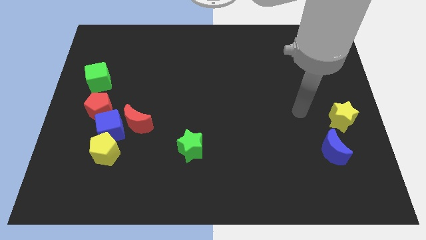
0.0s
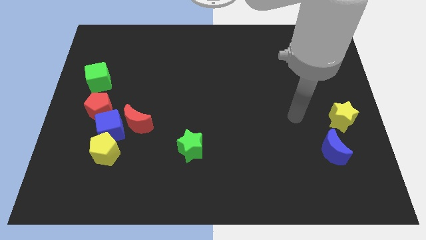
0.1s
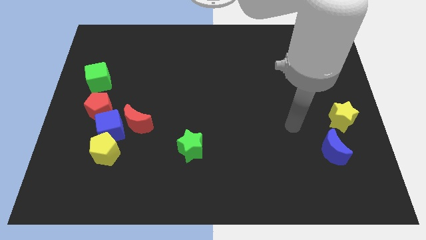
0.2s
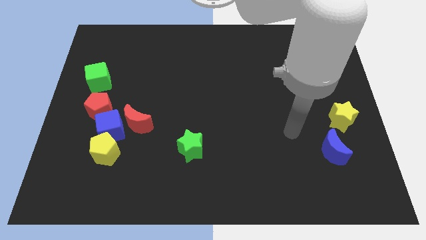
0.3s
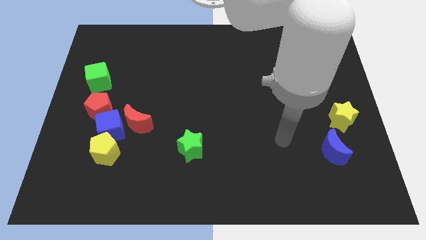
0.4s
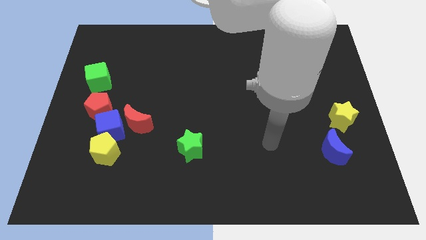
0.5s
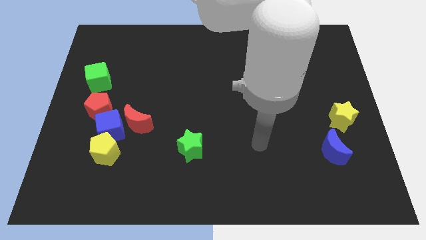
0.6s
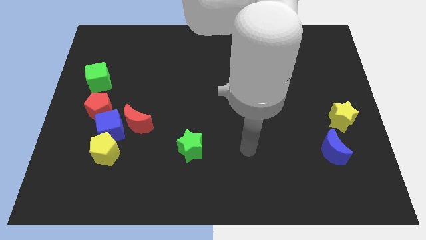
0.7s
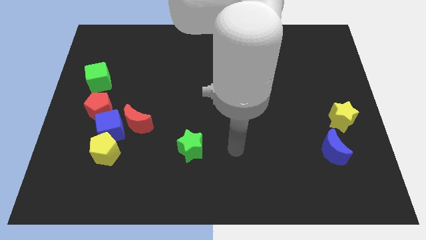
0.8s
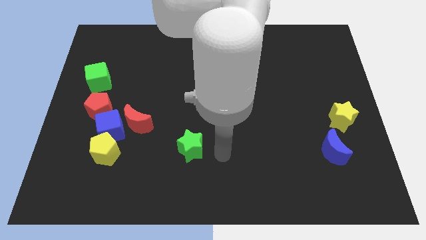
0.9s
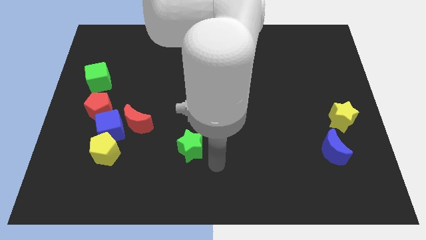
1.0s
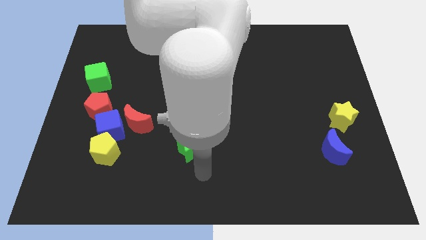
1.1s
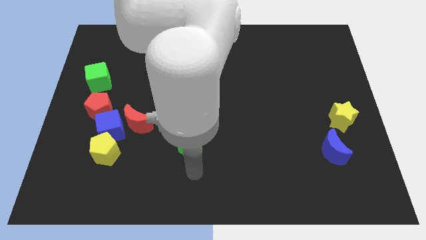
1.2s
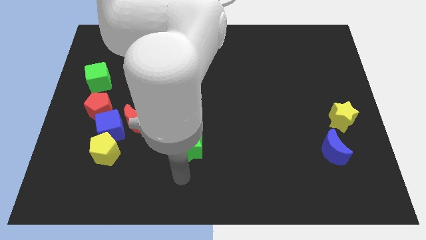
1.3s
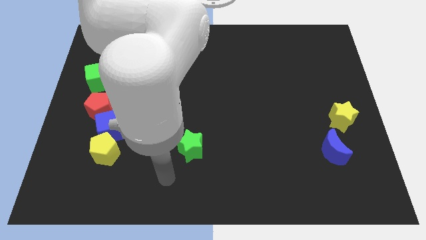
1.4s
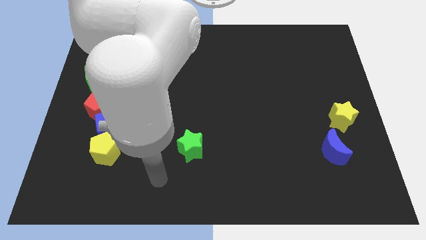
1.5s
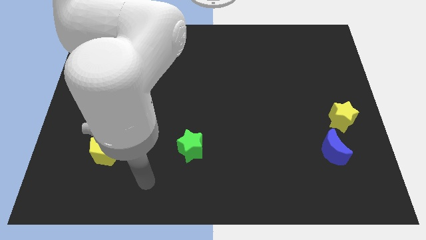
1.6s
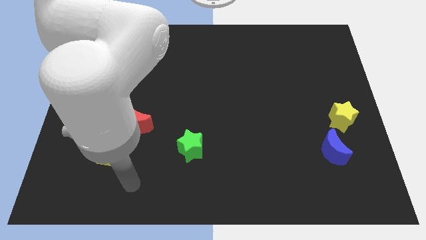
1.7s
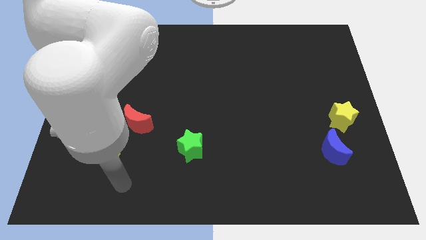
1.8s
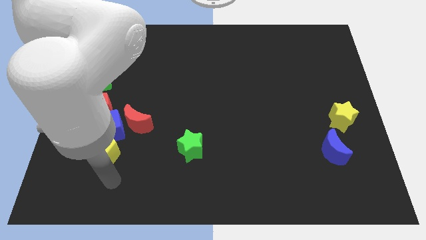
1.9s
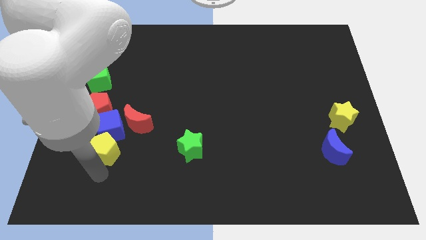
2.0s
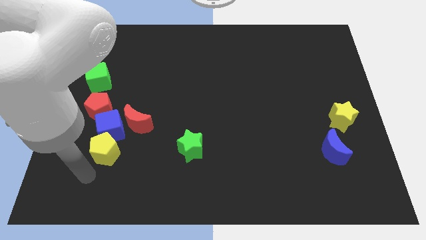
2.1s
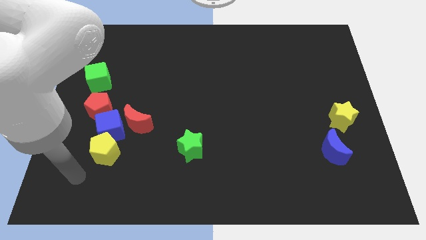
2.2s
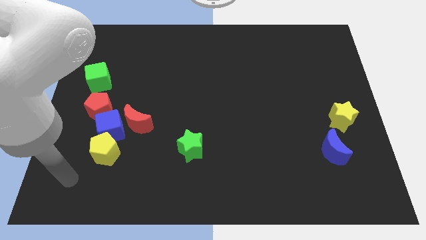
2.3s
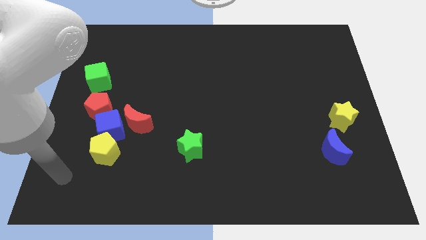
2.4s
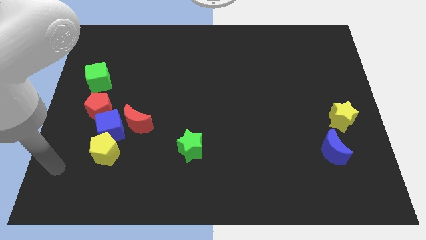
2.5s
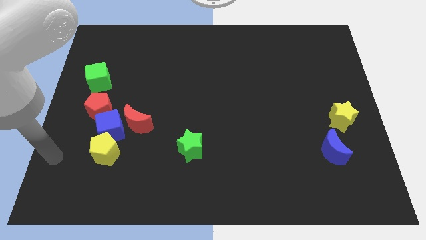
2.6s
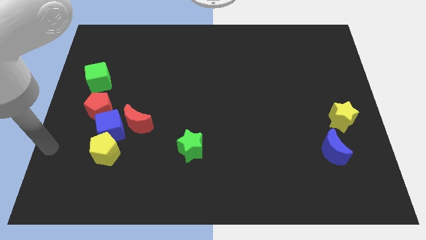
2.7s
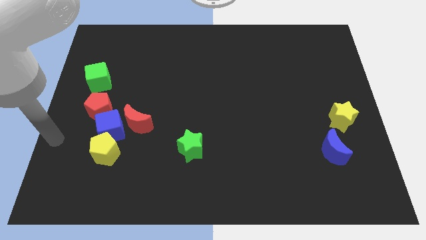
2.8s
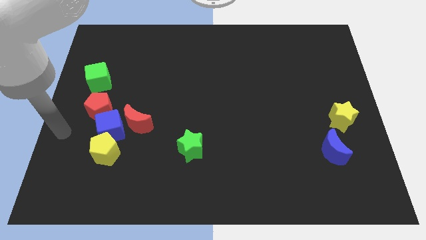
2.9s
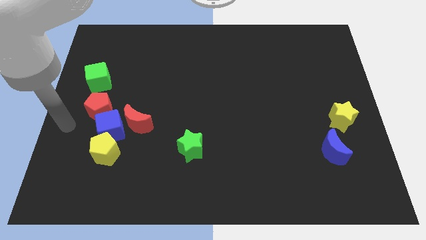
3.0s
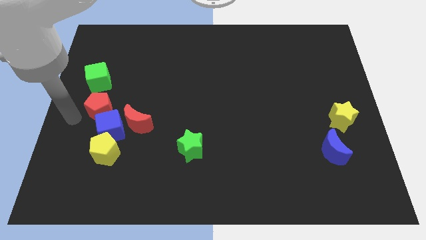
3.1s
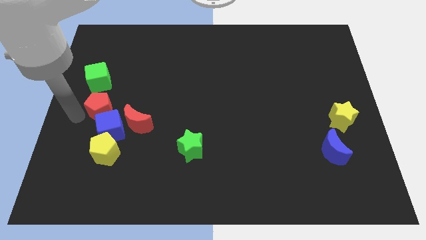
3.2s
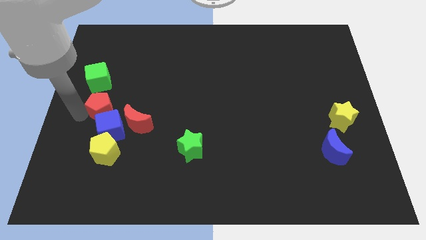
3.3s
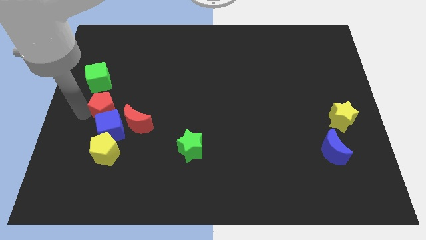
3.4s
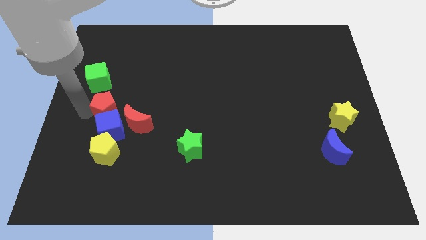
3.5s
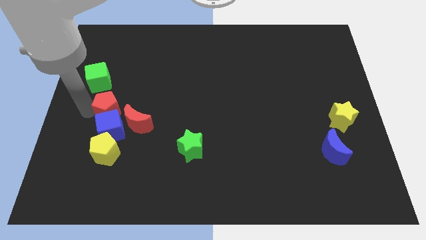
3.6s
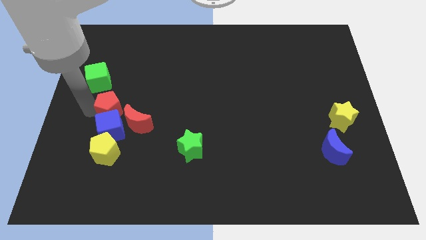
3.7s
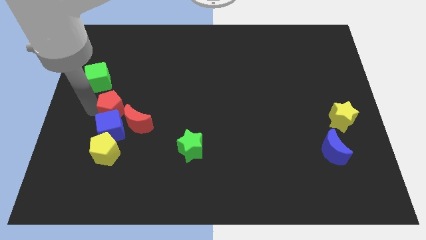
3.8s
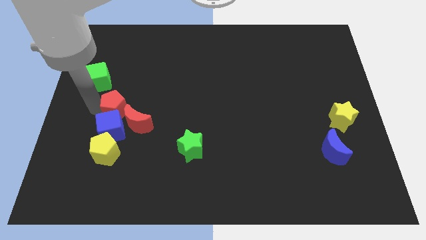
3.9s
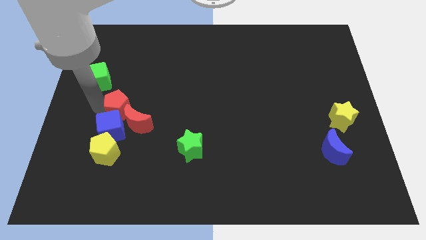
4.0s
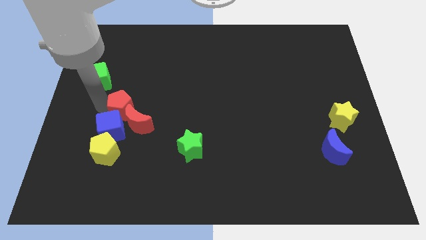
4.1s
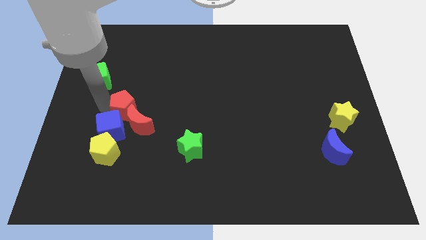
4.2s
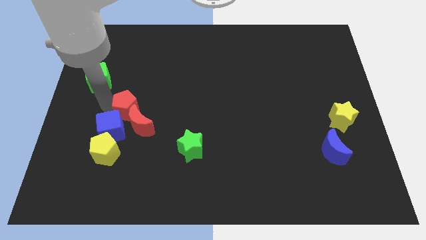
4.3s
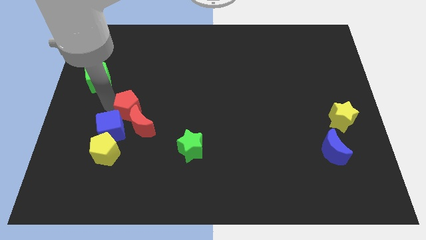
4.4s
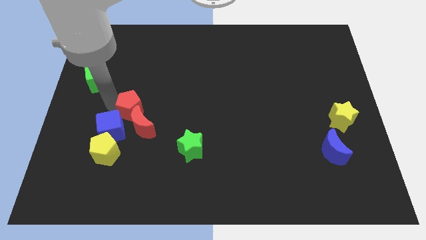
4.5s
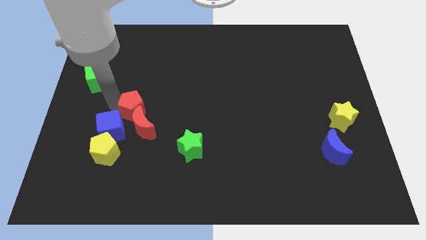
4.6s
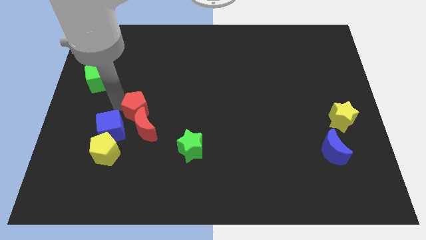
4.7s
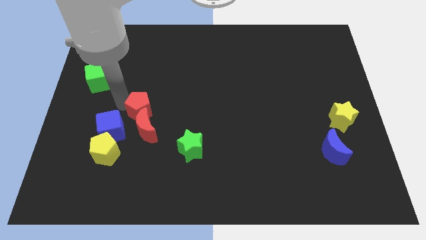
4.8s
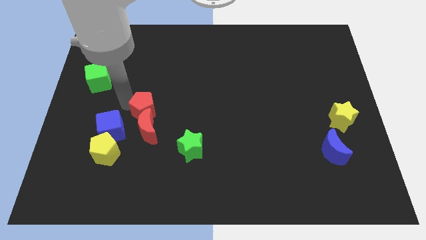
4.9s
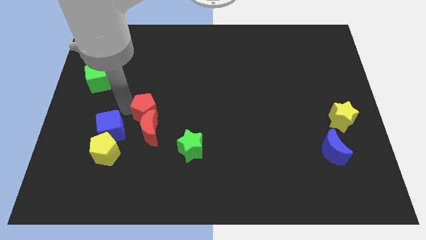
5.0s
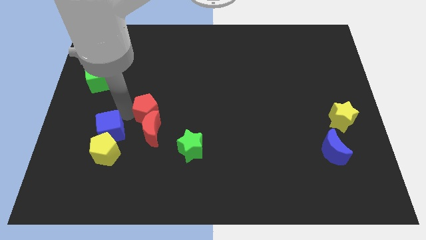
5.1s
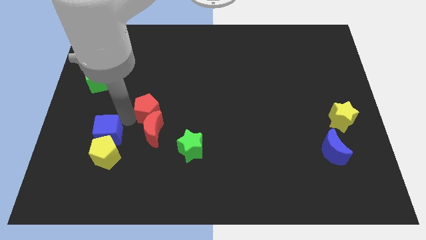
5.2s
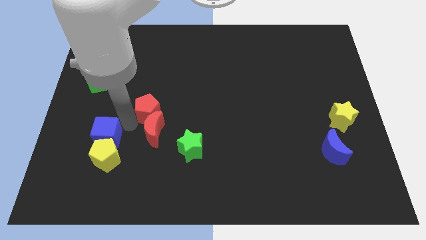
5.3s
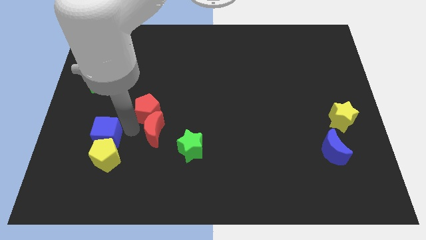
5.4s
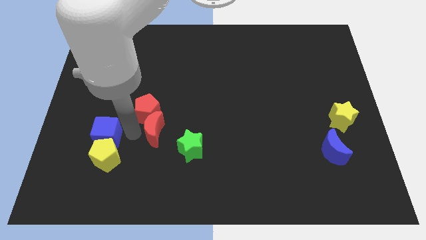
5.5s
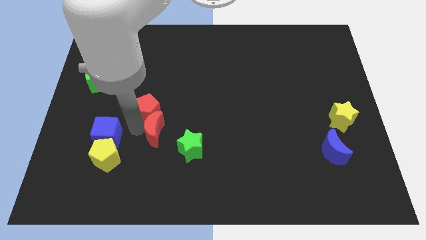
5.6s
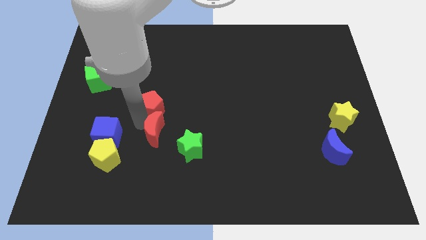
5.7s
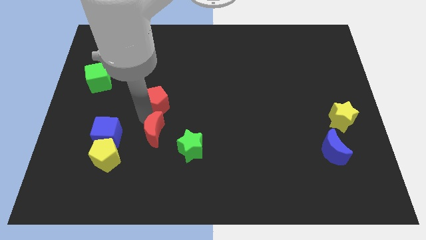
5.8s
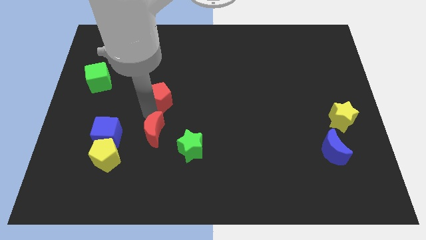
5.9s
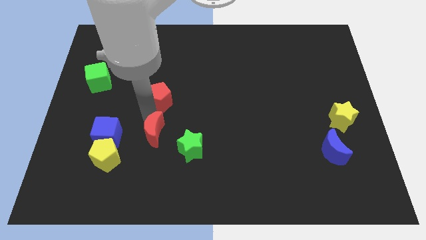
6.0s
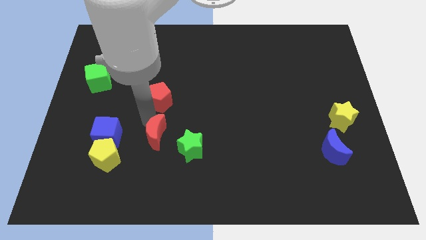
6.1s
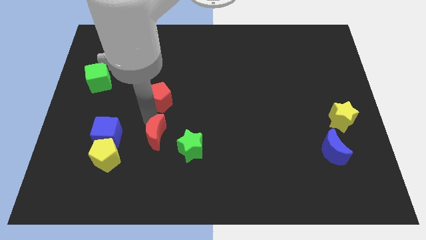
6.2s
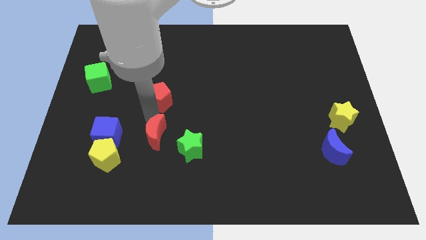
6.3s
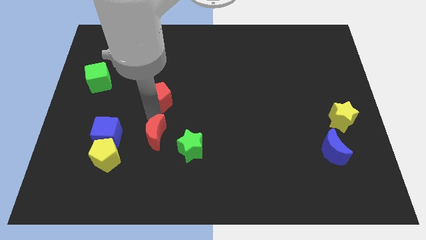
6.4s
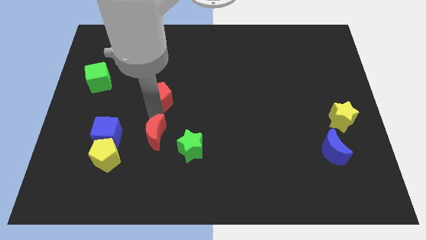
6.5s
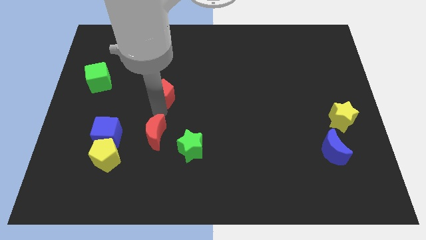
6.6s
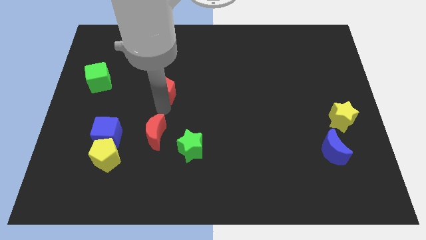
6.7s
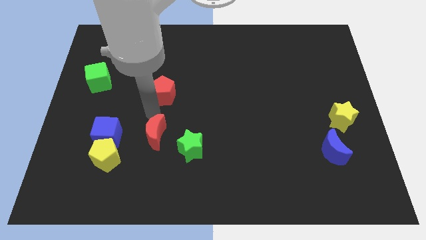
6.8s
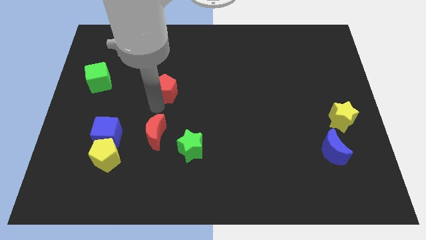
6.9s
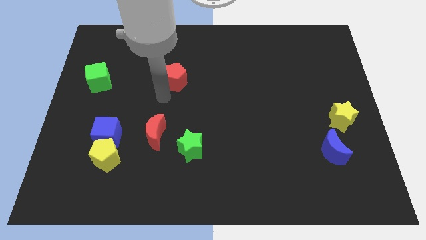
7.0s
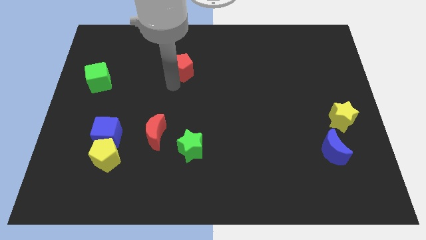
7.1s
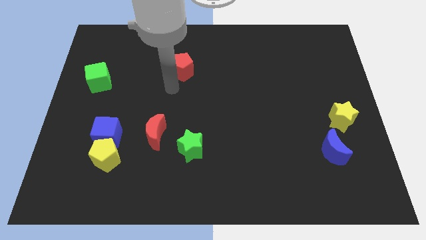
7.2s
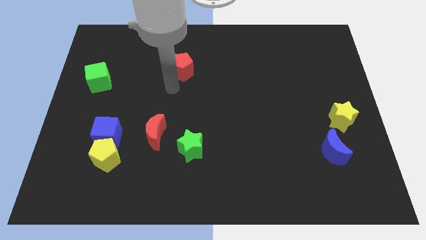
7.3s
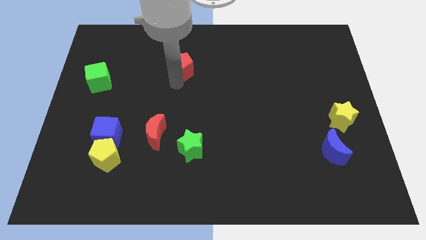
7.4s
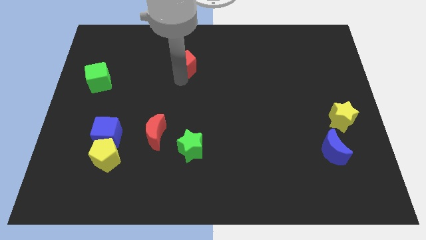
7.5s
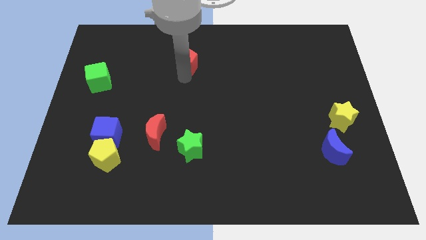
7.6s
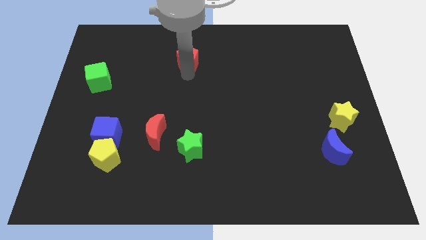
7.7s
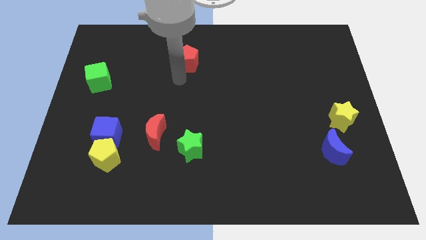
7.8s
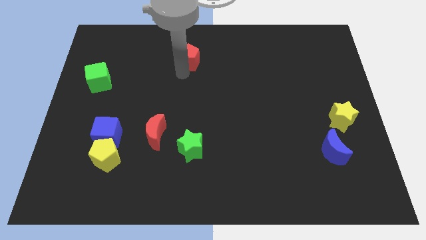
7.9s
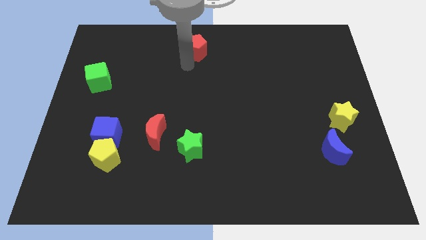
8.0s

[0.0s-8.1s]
push the red pentagon to the towards your base
